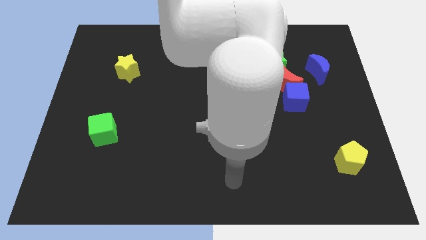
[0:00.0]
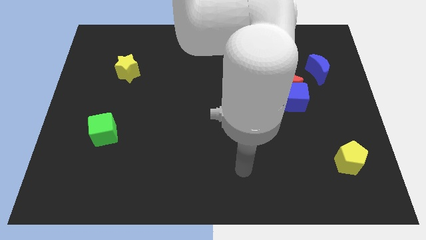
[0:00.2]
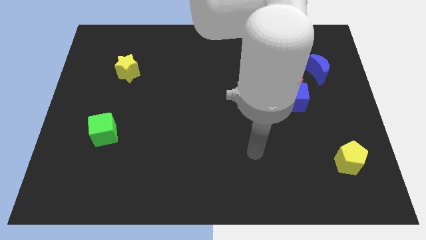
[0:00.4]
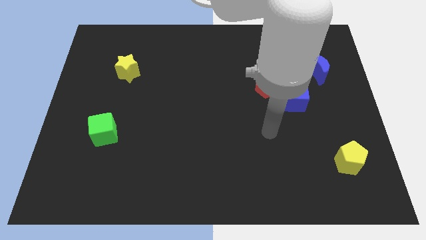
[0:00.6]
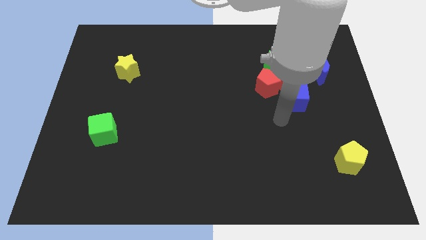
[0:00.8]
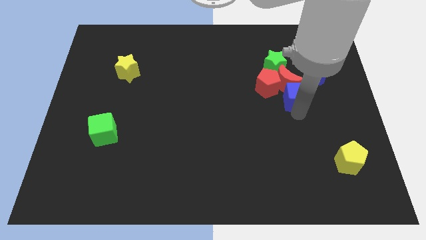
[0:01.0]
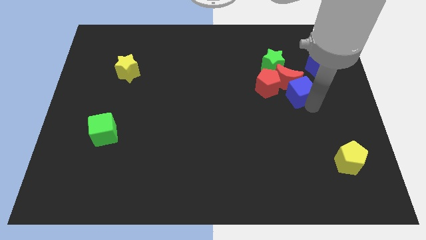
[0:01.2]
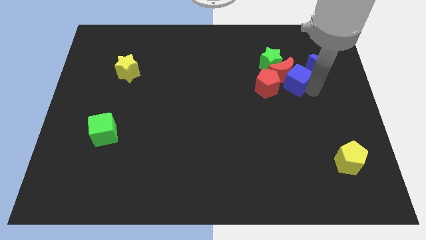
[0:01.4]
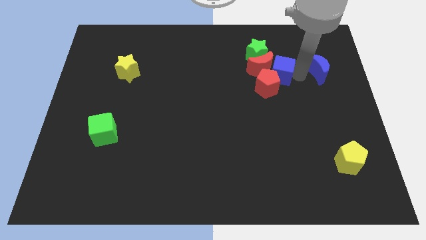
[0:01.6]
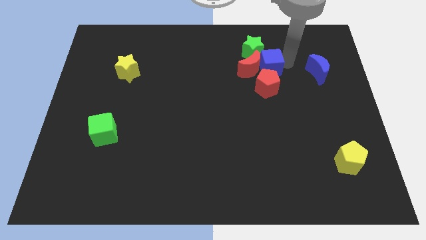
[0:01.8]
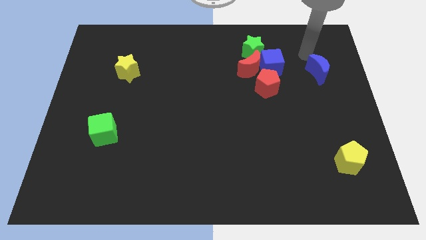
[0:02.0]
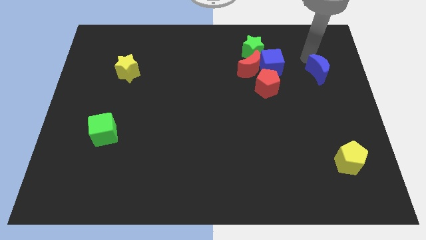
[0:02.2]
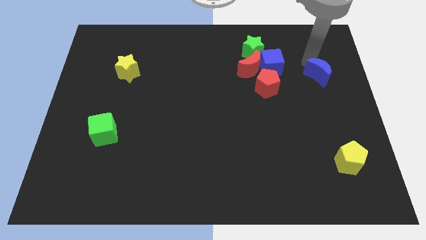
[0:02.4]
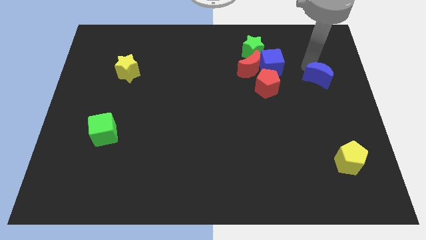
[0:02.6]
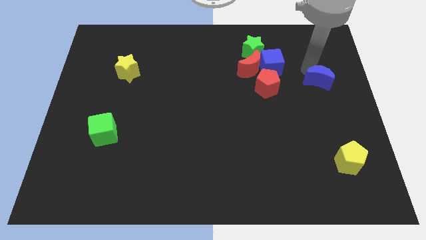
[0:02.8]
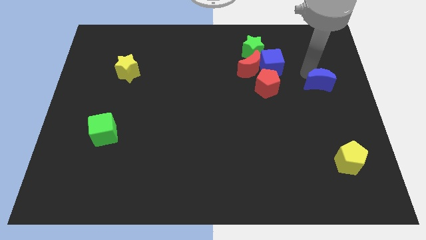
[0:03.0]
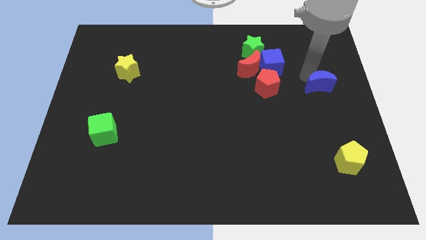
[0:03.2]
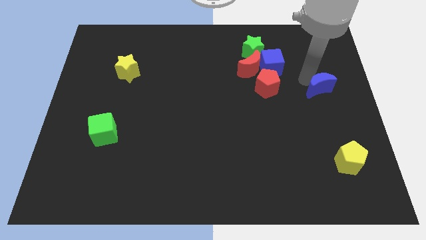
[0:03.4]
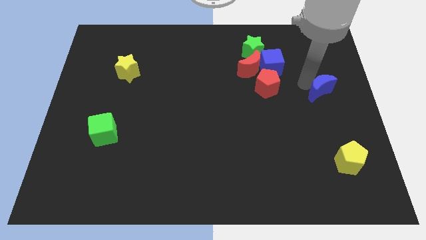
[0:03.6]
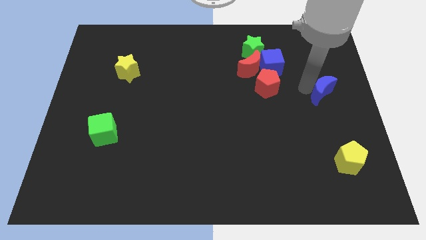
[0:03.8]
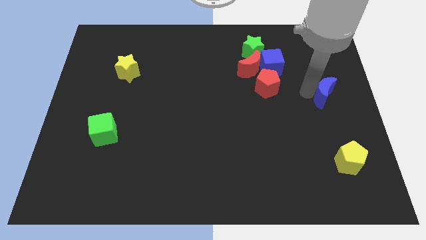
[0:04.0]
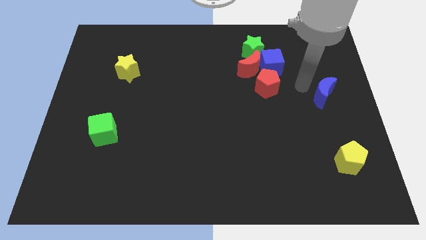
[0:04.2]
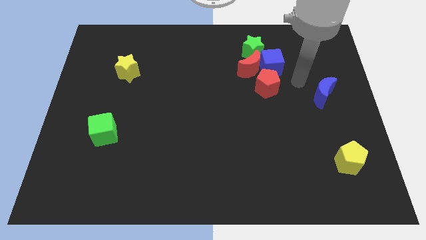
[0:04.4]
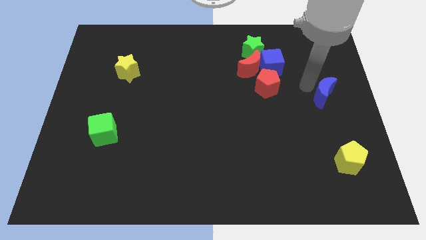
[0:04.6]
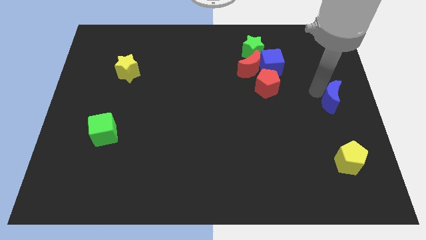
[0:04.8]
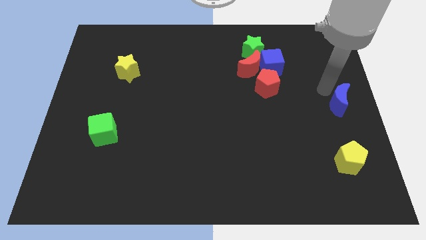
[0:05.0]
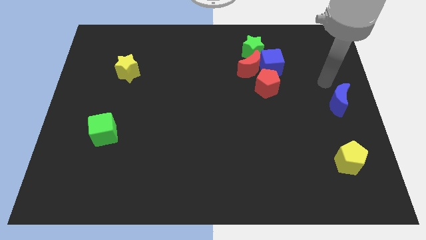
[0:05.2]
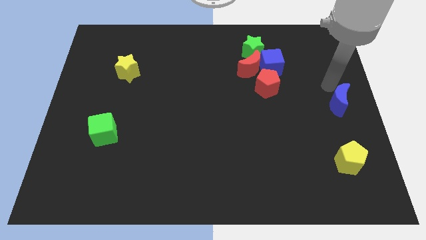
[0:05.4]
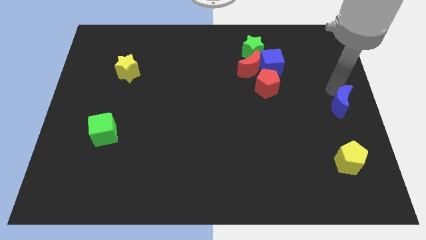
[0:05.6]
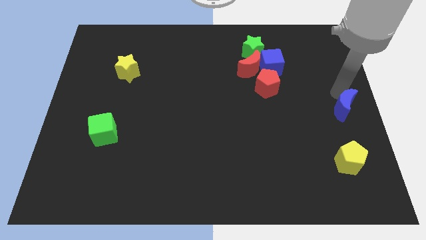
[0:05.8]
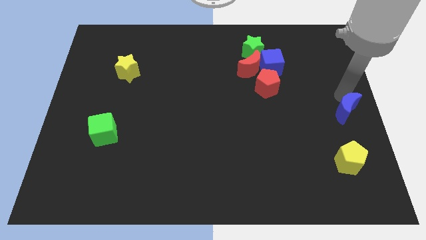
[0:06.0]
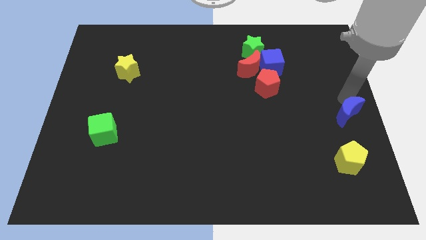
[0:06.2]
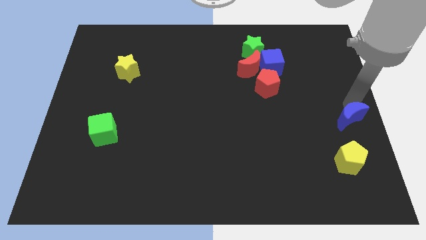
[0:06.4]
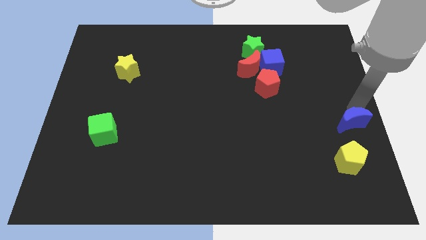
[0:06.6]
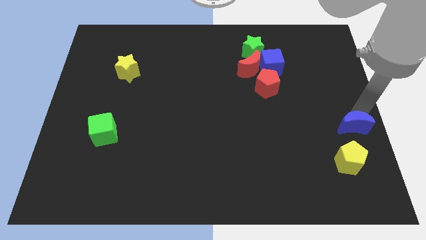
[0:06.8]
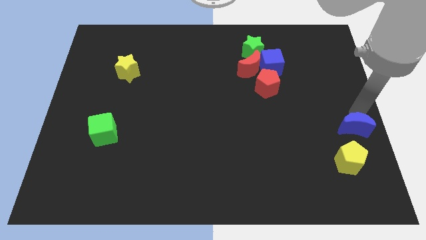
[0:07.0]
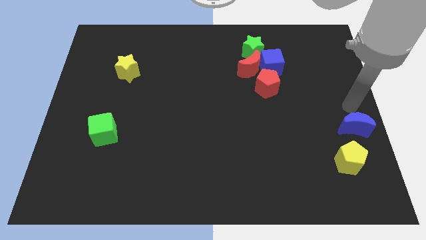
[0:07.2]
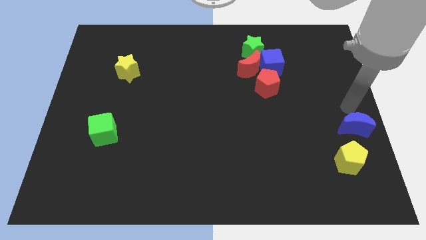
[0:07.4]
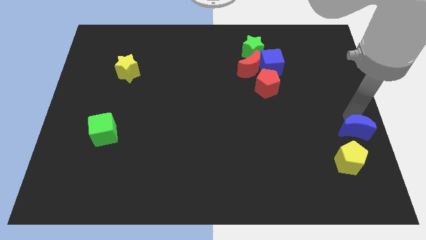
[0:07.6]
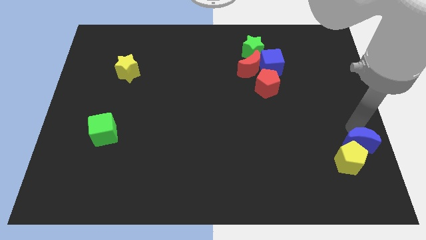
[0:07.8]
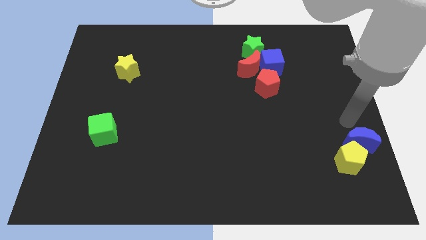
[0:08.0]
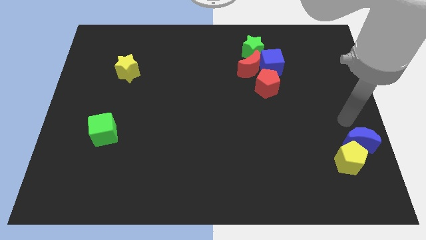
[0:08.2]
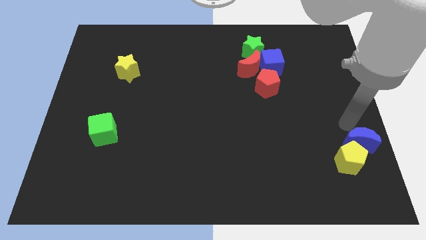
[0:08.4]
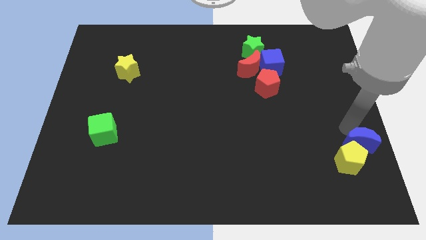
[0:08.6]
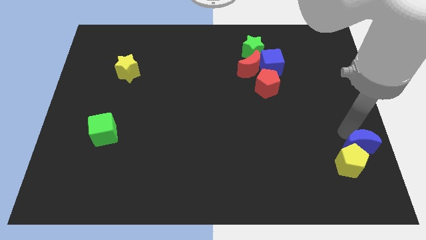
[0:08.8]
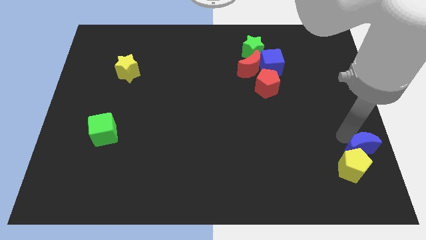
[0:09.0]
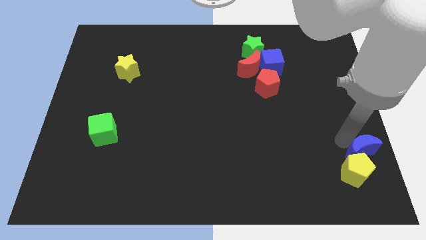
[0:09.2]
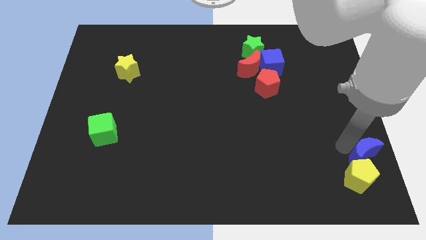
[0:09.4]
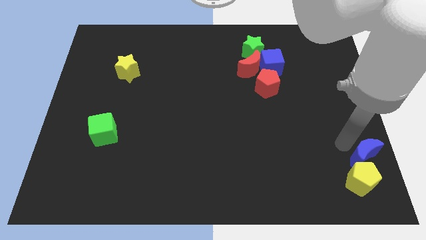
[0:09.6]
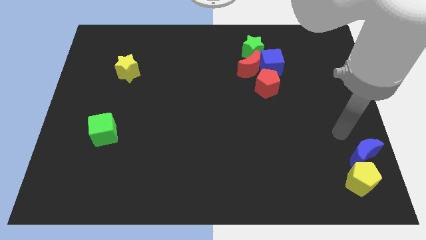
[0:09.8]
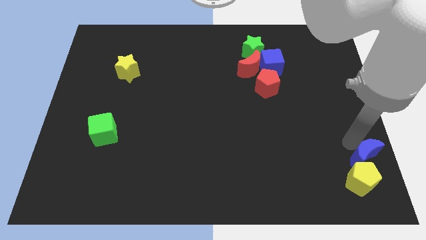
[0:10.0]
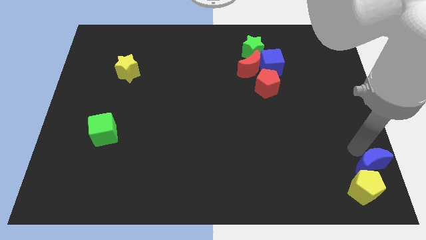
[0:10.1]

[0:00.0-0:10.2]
put the blue moon to the bottom right

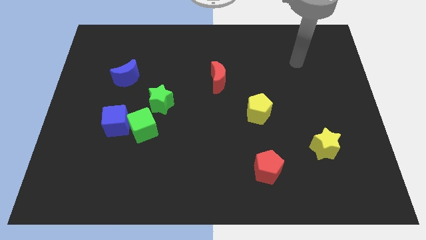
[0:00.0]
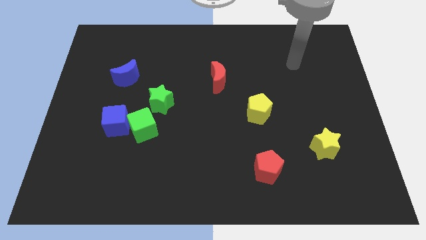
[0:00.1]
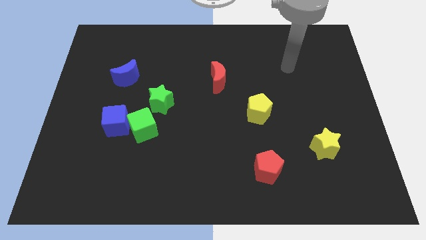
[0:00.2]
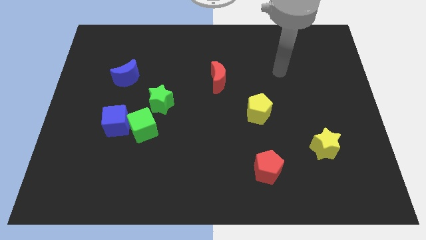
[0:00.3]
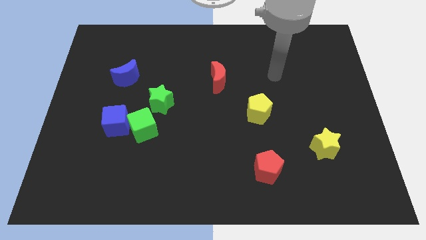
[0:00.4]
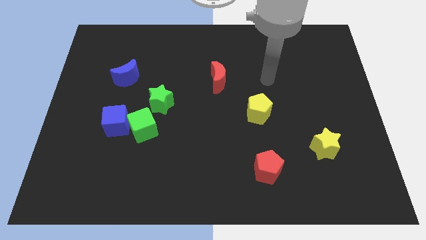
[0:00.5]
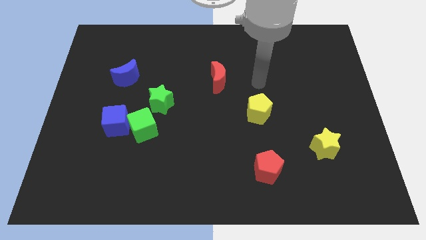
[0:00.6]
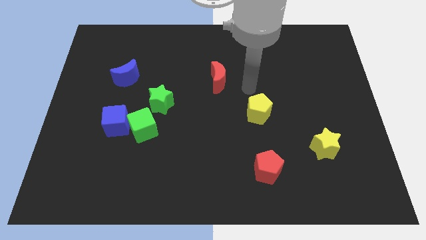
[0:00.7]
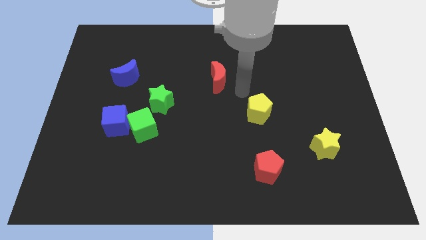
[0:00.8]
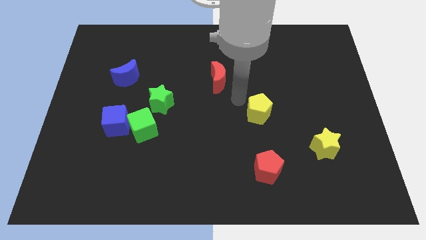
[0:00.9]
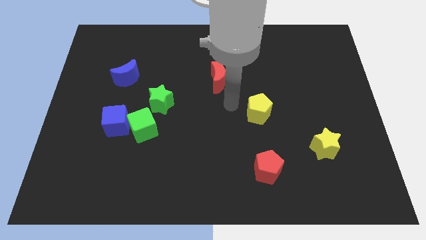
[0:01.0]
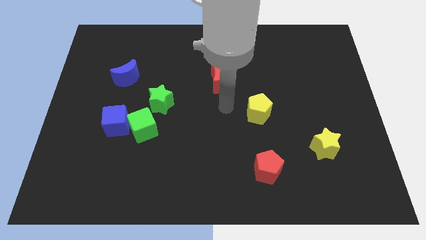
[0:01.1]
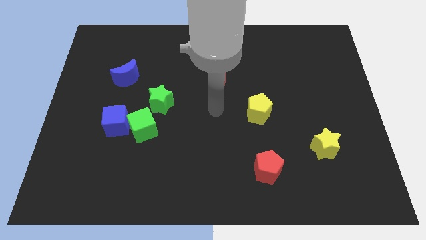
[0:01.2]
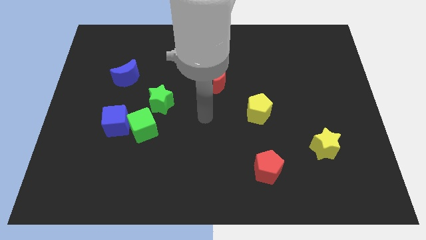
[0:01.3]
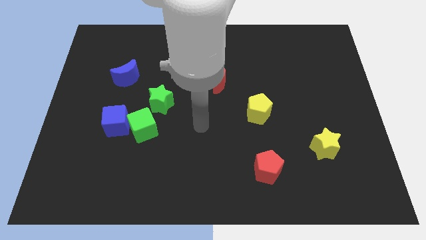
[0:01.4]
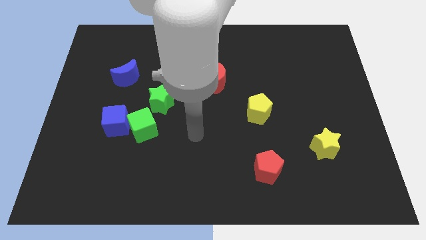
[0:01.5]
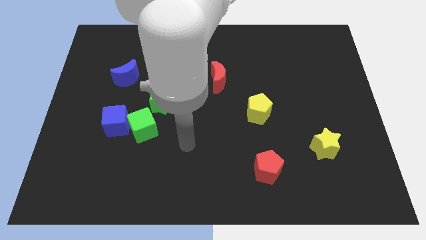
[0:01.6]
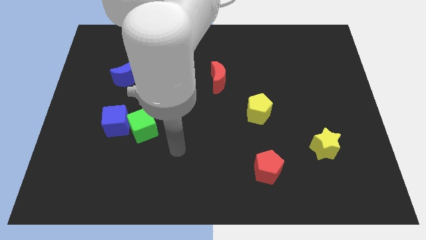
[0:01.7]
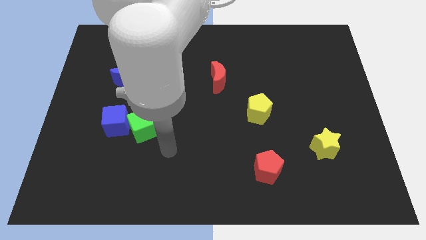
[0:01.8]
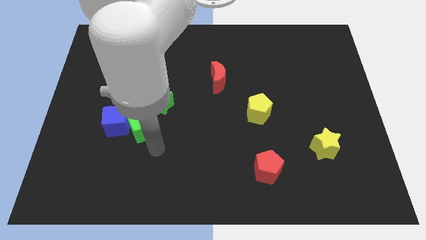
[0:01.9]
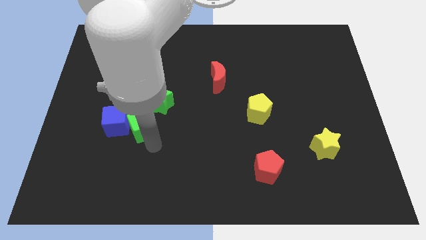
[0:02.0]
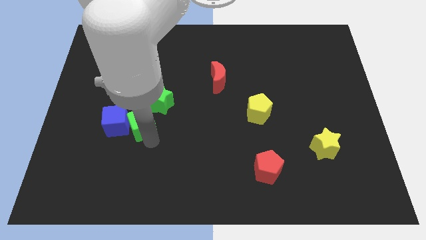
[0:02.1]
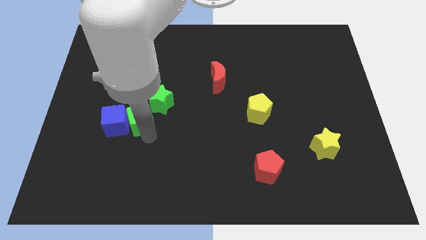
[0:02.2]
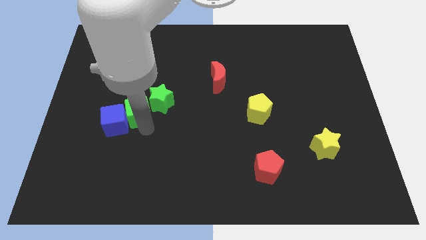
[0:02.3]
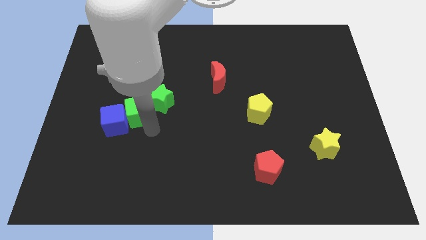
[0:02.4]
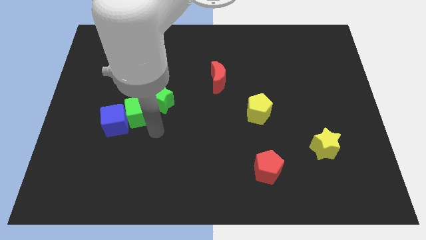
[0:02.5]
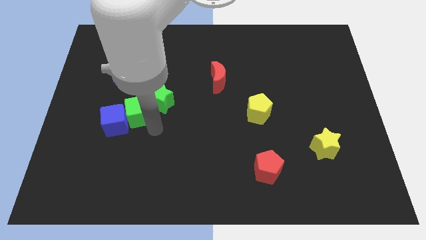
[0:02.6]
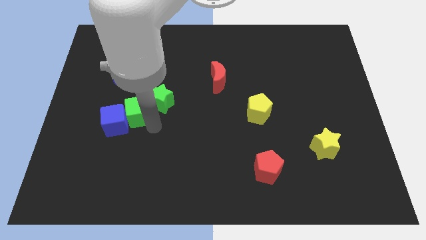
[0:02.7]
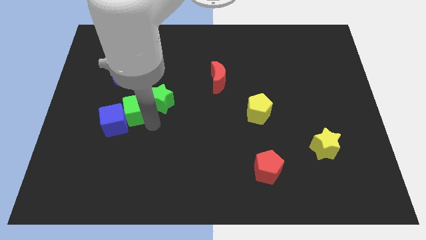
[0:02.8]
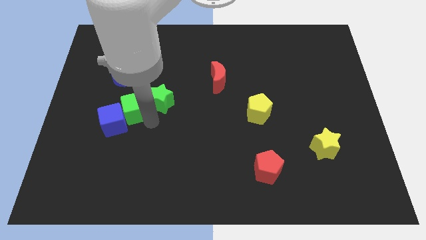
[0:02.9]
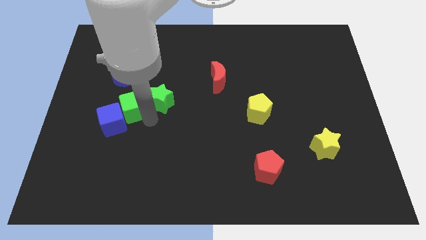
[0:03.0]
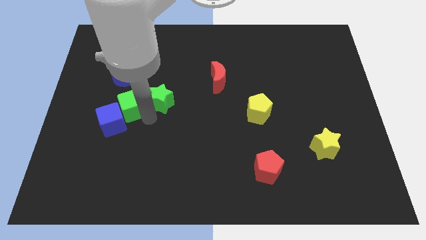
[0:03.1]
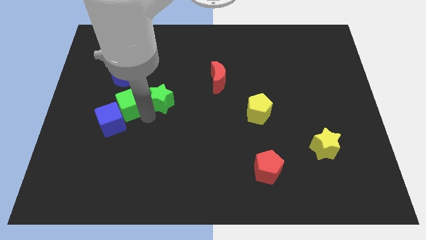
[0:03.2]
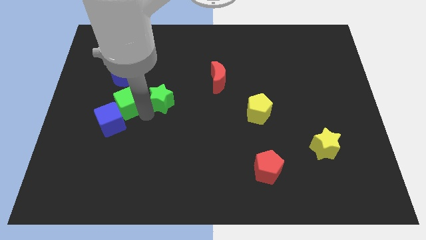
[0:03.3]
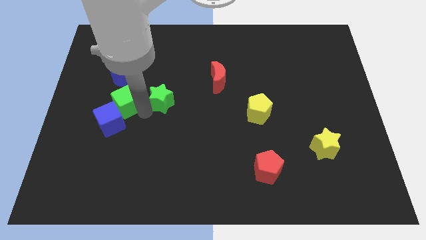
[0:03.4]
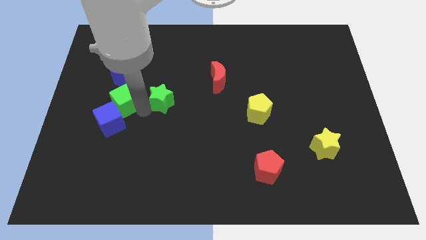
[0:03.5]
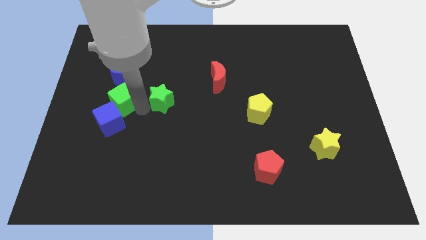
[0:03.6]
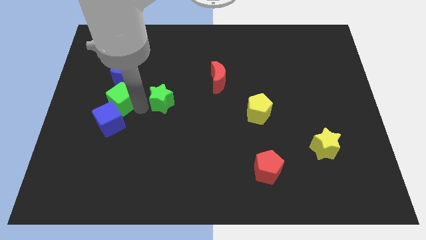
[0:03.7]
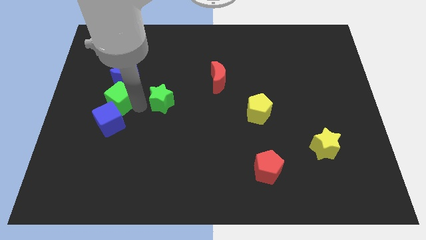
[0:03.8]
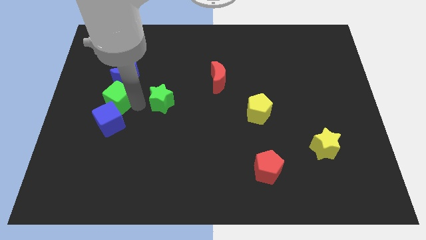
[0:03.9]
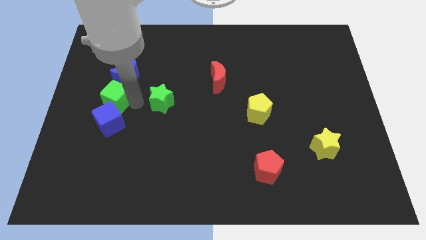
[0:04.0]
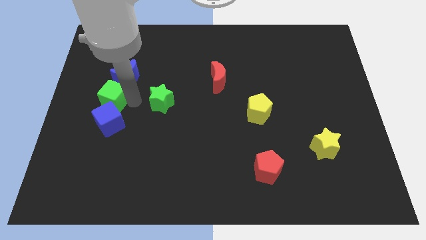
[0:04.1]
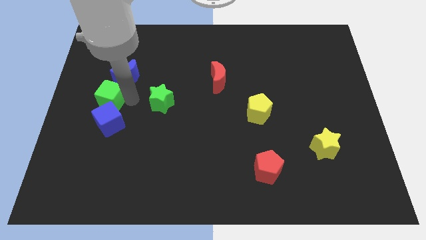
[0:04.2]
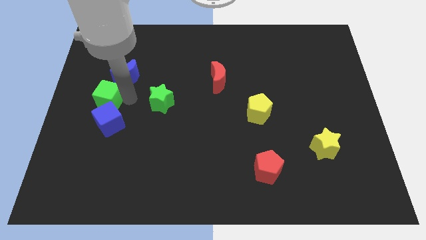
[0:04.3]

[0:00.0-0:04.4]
put the green cube to the left side
